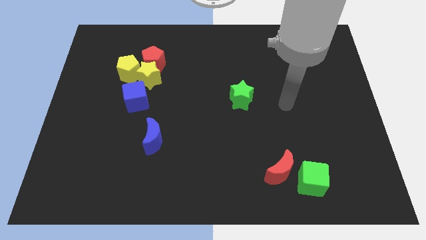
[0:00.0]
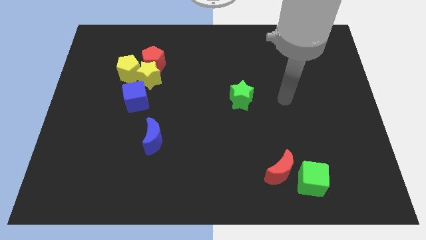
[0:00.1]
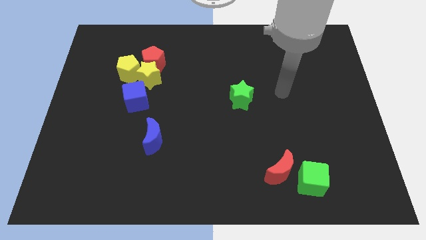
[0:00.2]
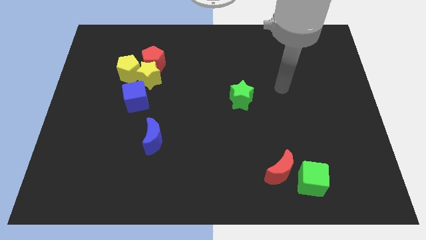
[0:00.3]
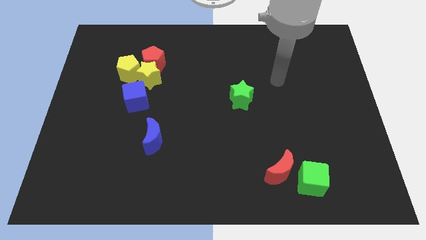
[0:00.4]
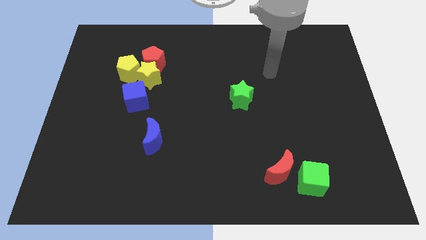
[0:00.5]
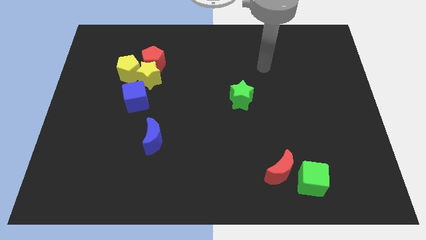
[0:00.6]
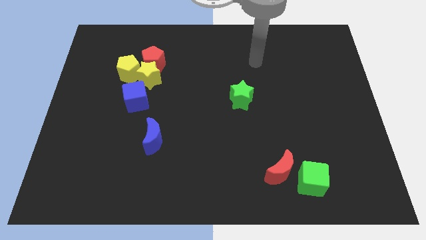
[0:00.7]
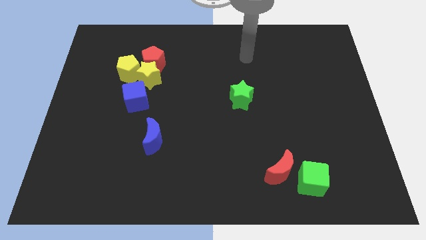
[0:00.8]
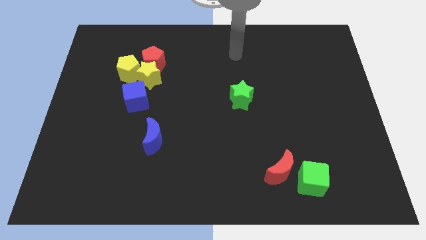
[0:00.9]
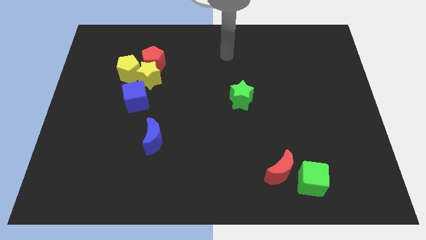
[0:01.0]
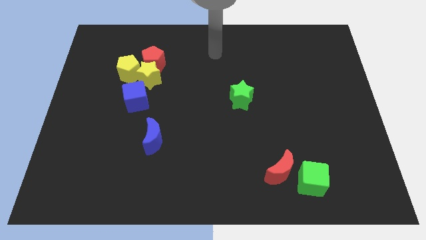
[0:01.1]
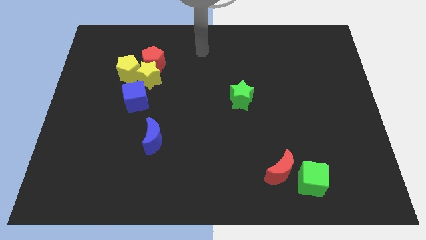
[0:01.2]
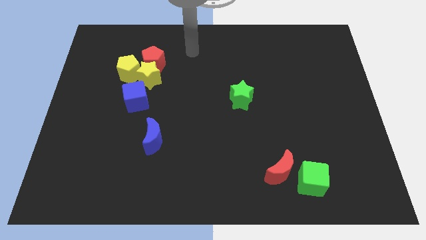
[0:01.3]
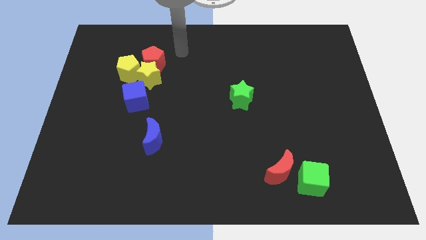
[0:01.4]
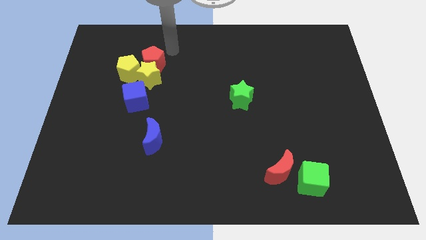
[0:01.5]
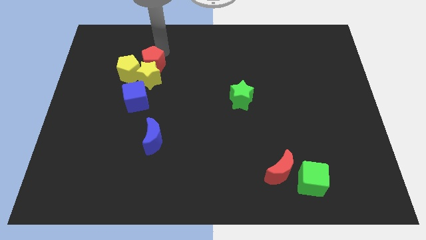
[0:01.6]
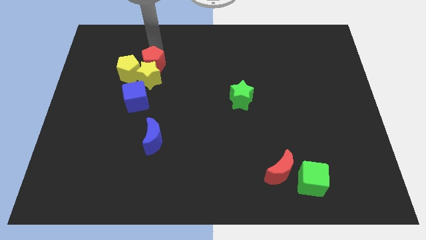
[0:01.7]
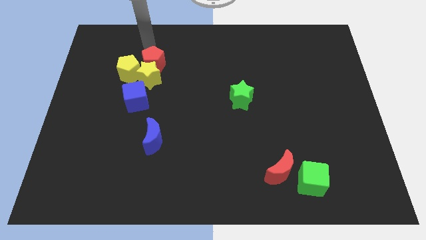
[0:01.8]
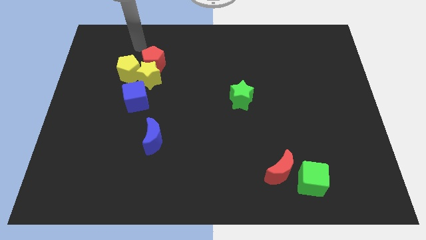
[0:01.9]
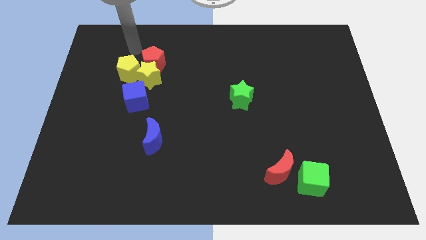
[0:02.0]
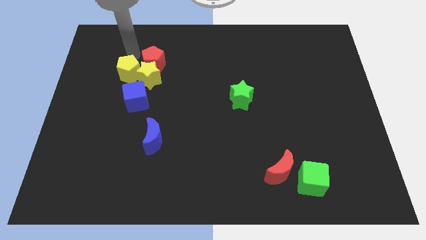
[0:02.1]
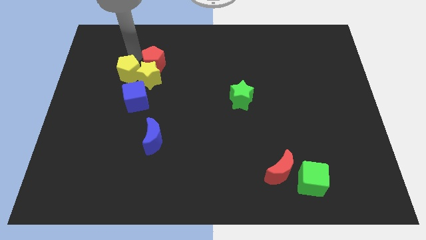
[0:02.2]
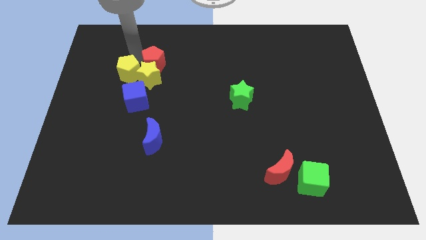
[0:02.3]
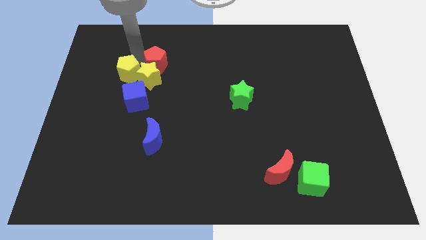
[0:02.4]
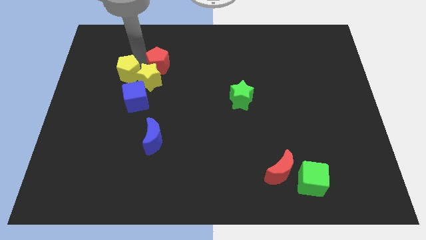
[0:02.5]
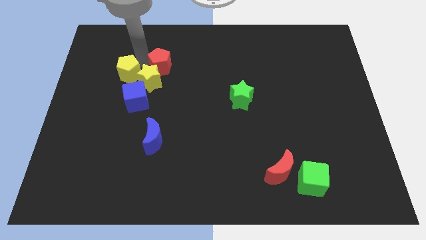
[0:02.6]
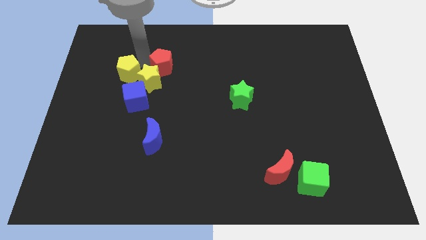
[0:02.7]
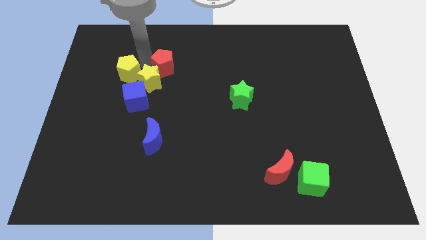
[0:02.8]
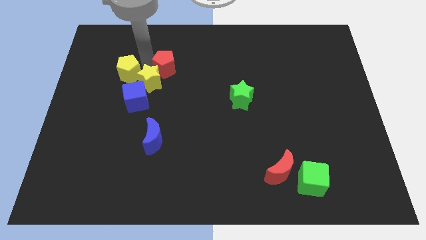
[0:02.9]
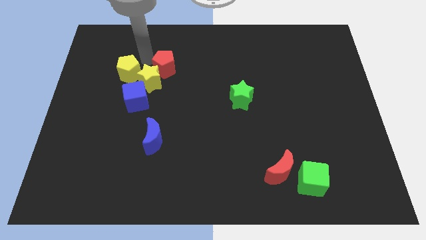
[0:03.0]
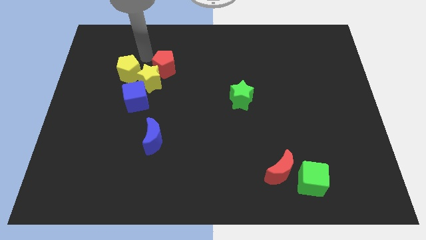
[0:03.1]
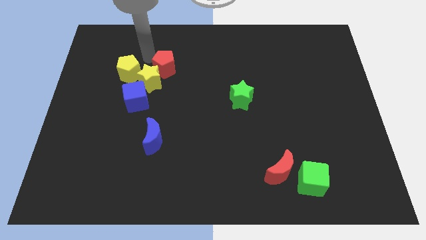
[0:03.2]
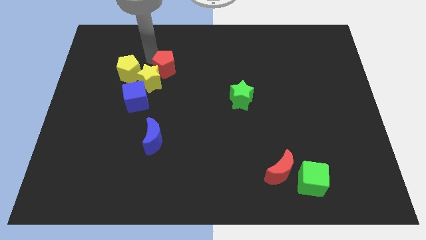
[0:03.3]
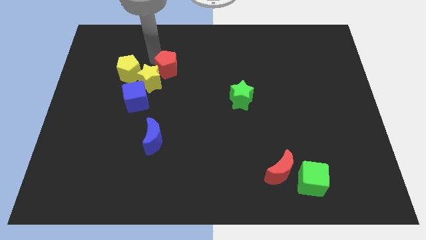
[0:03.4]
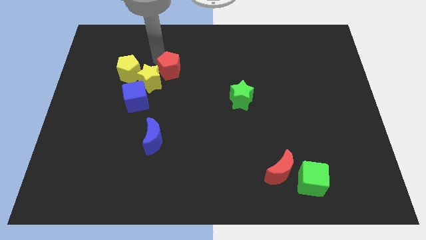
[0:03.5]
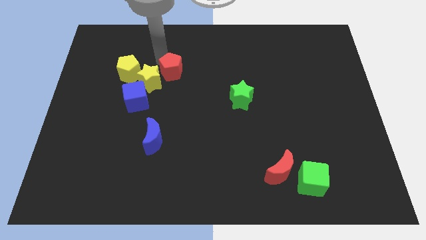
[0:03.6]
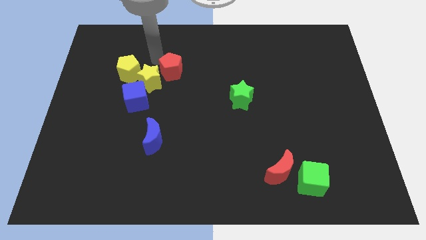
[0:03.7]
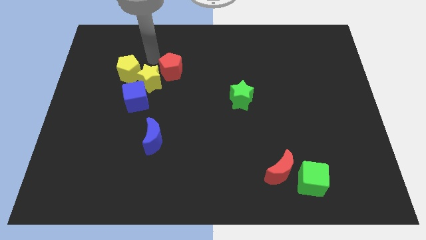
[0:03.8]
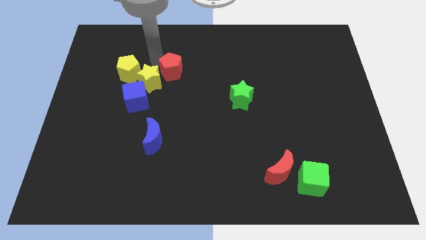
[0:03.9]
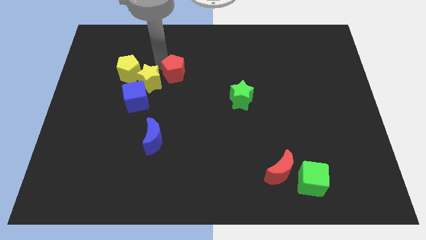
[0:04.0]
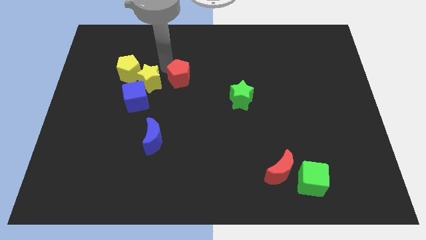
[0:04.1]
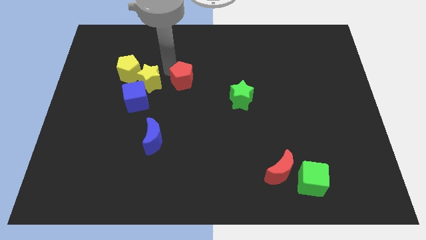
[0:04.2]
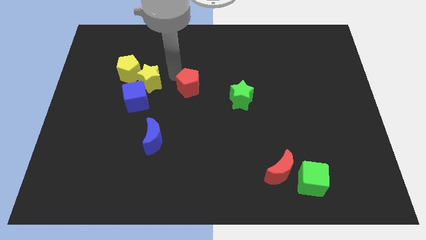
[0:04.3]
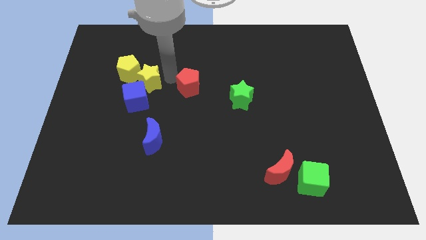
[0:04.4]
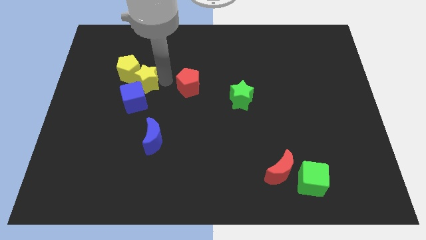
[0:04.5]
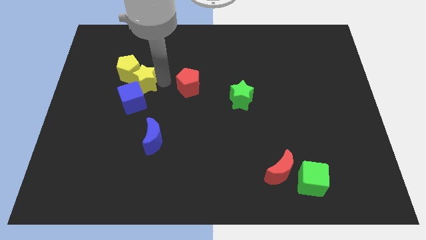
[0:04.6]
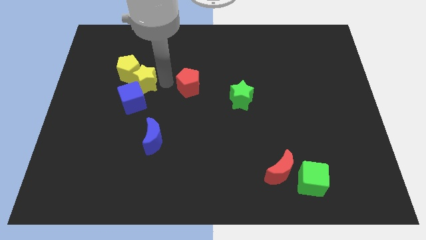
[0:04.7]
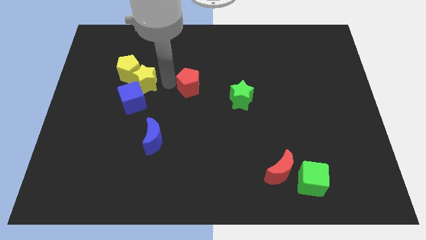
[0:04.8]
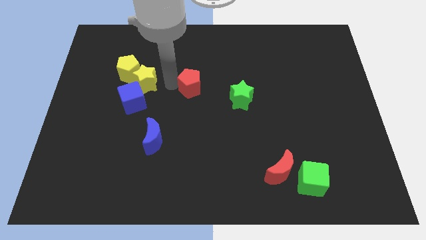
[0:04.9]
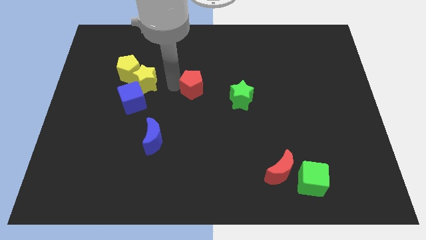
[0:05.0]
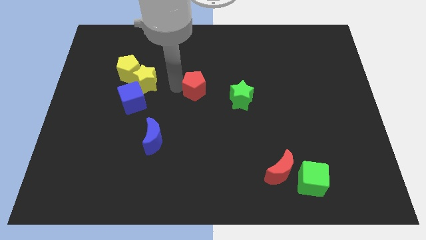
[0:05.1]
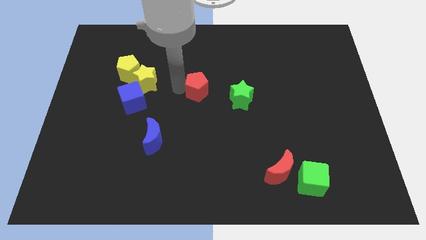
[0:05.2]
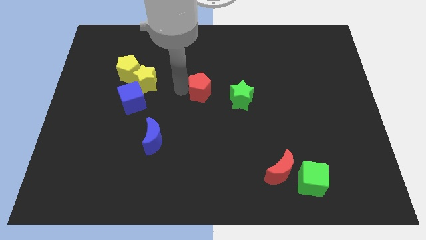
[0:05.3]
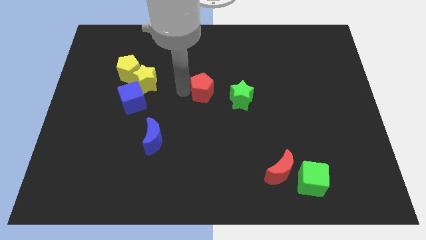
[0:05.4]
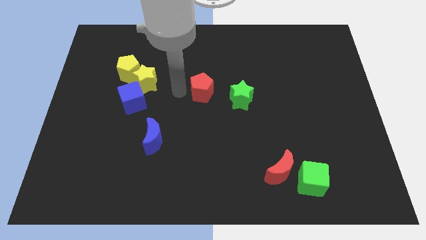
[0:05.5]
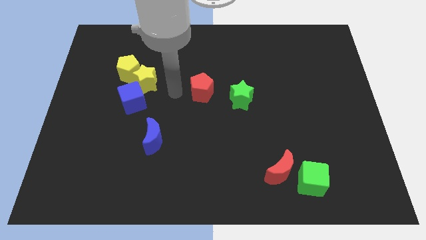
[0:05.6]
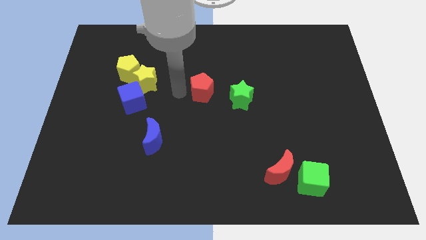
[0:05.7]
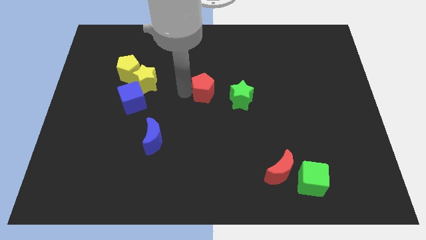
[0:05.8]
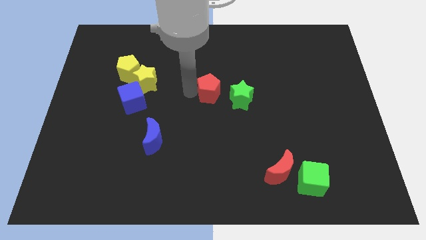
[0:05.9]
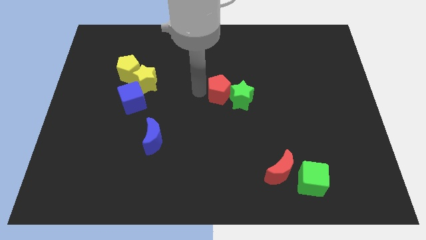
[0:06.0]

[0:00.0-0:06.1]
put the red pentagon close to the green star

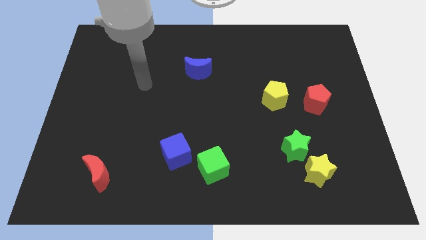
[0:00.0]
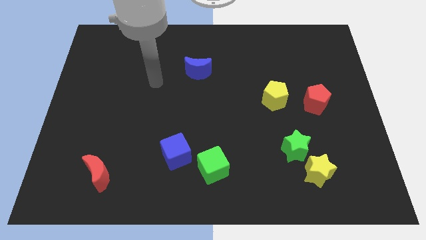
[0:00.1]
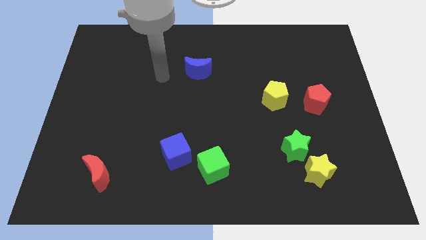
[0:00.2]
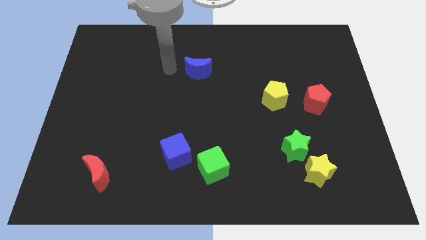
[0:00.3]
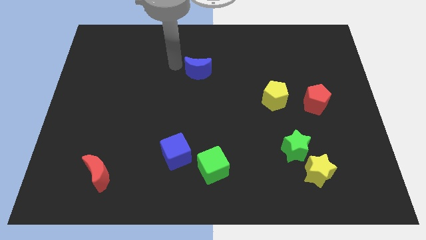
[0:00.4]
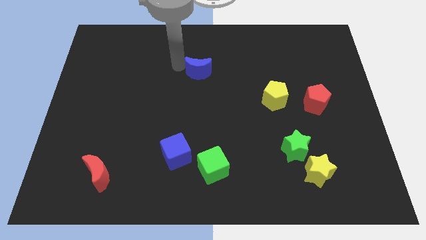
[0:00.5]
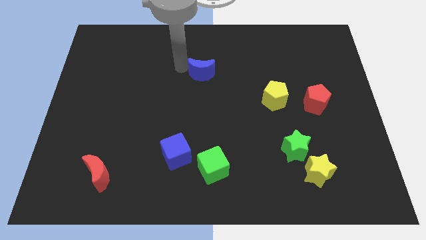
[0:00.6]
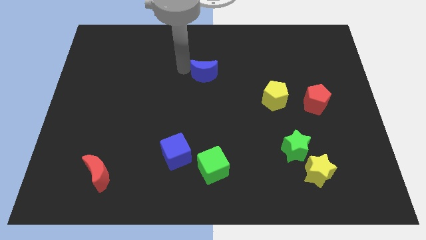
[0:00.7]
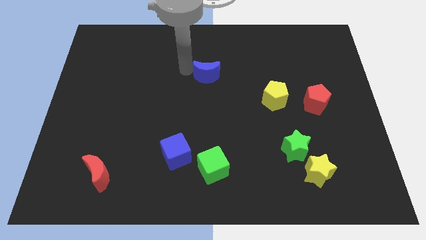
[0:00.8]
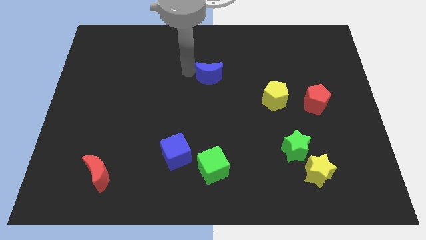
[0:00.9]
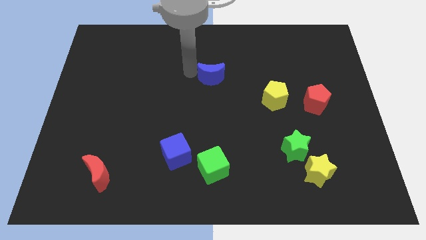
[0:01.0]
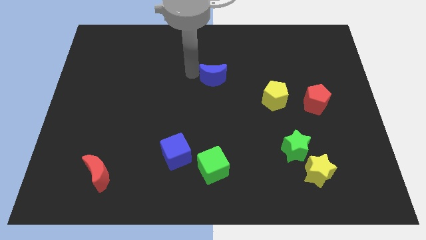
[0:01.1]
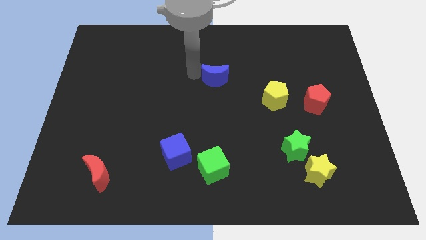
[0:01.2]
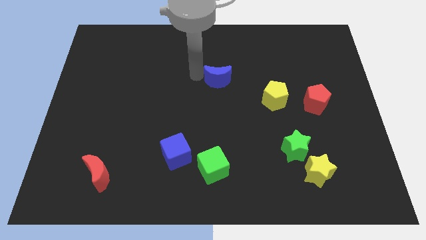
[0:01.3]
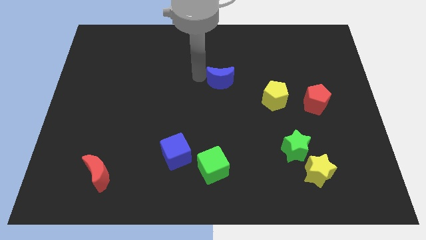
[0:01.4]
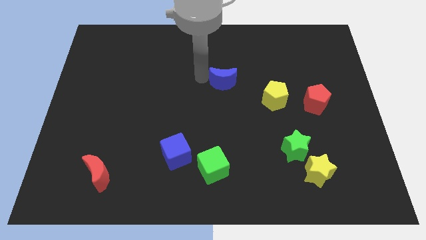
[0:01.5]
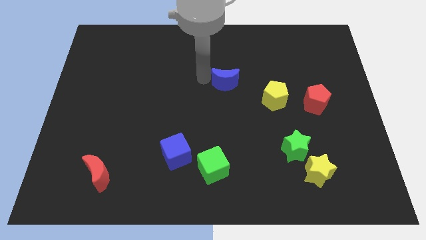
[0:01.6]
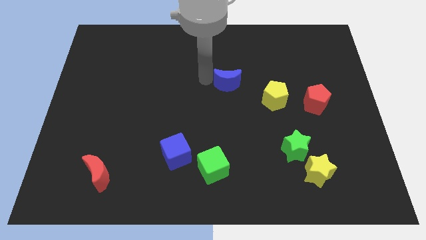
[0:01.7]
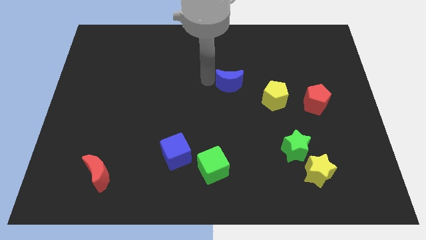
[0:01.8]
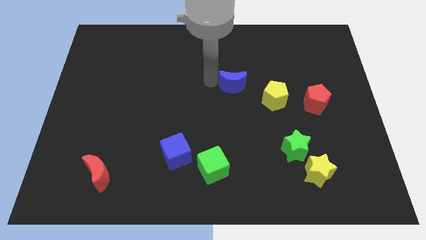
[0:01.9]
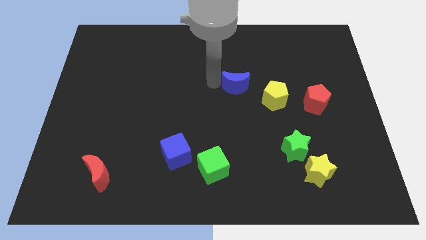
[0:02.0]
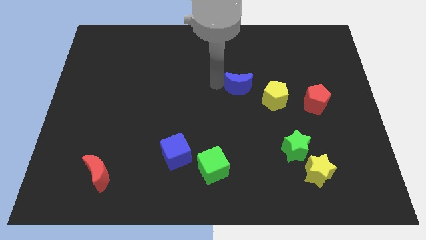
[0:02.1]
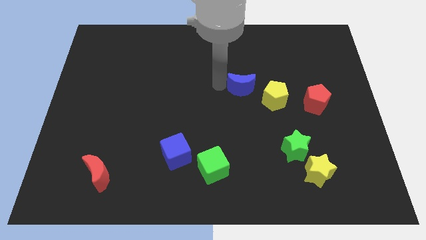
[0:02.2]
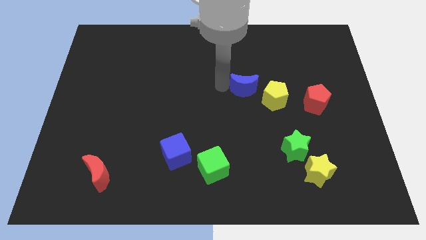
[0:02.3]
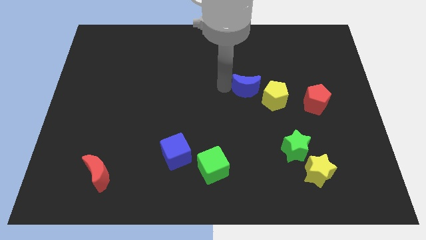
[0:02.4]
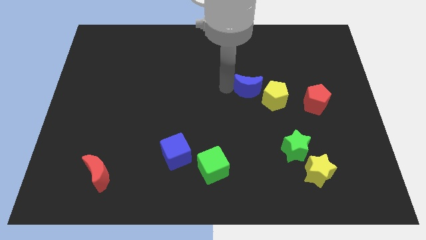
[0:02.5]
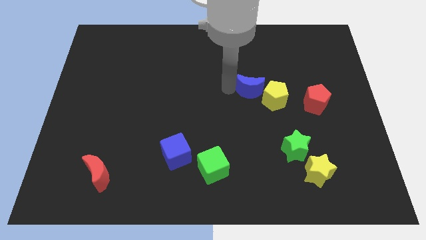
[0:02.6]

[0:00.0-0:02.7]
put the blue moon to the yellow pentagon
